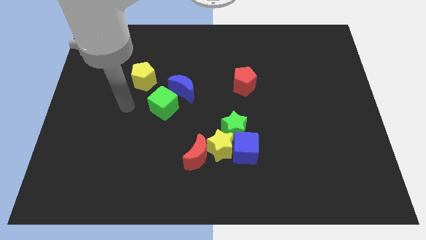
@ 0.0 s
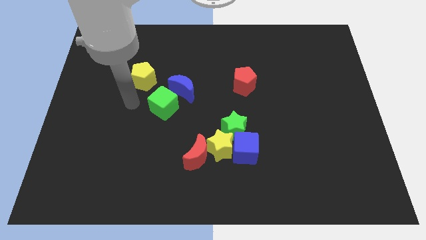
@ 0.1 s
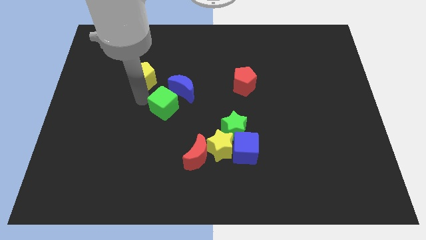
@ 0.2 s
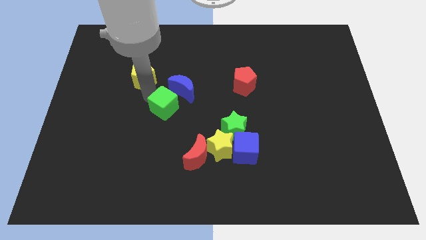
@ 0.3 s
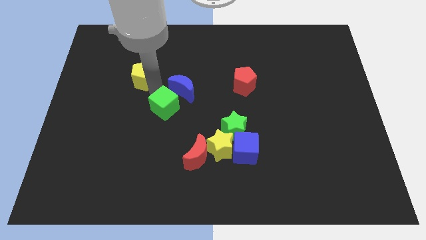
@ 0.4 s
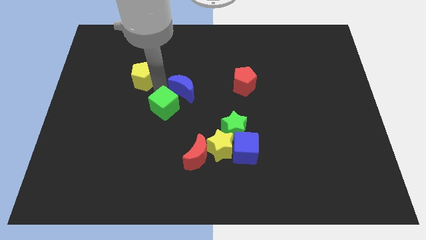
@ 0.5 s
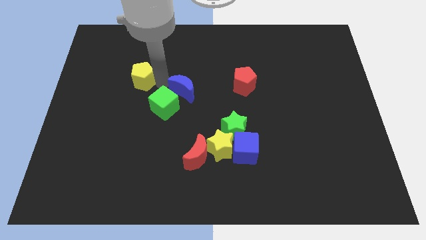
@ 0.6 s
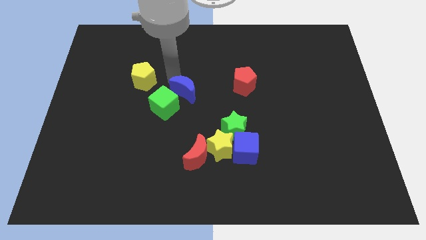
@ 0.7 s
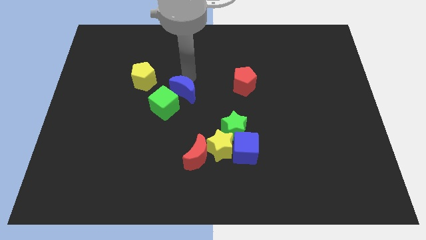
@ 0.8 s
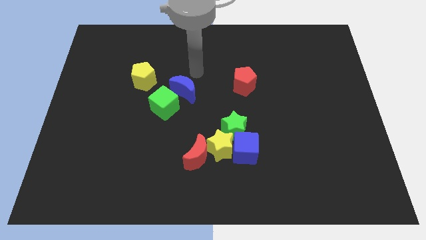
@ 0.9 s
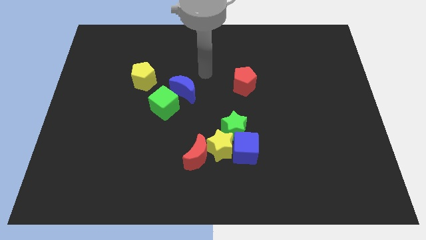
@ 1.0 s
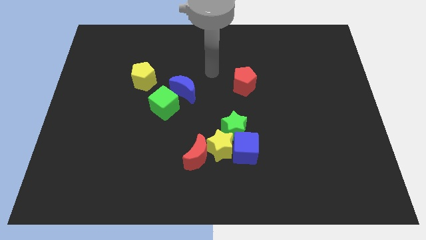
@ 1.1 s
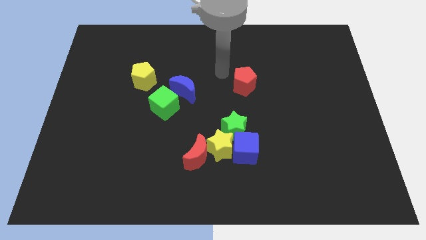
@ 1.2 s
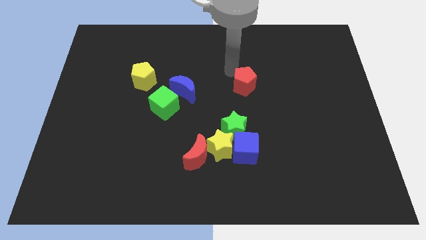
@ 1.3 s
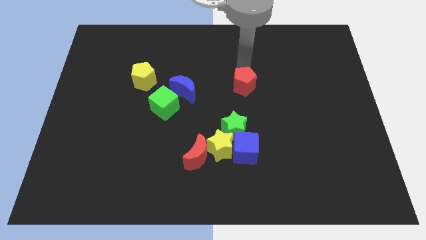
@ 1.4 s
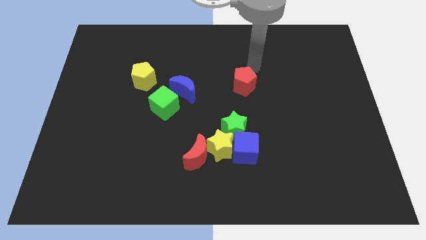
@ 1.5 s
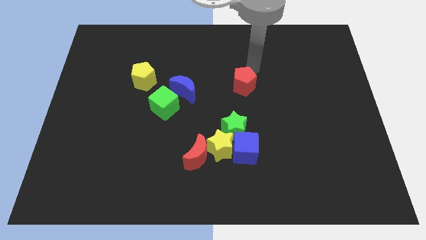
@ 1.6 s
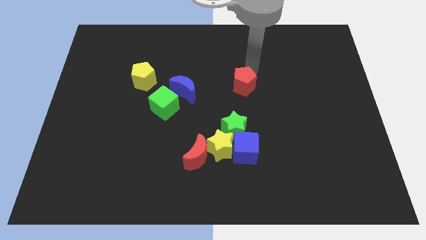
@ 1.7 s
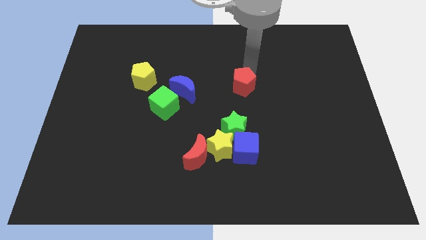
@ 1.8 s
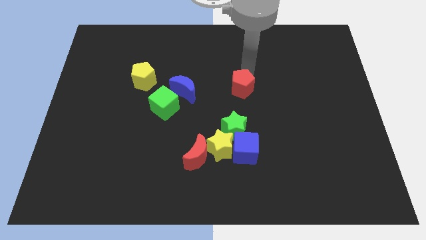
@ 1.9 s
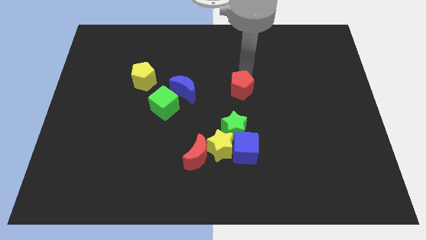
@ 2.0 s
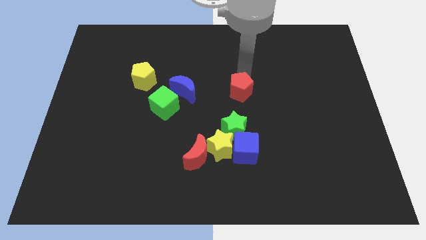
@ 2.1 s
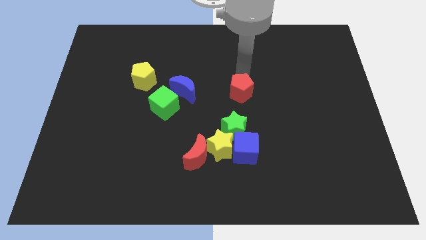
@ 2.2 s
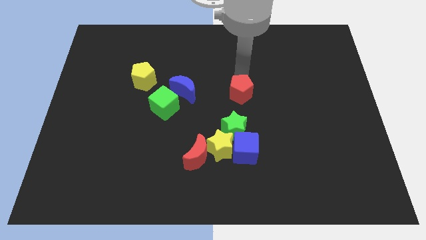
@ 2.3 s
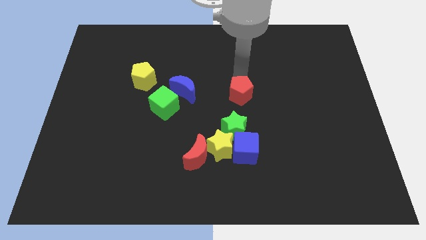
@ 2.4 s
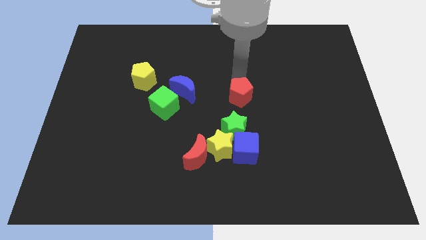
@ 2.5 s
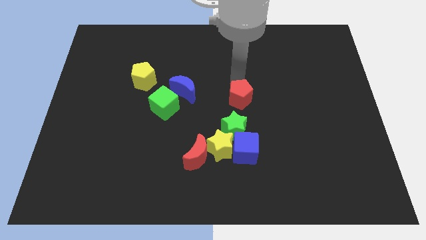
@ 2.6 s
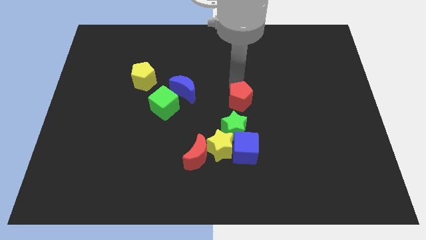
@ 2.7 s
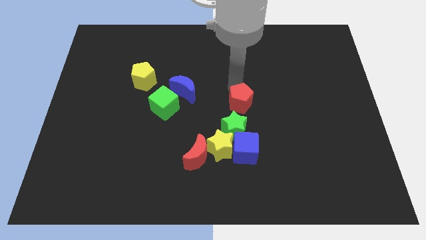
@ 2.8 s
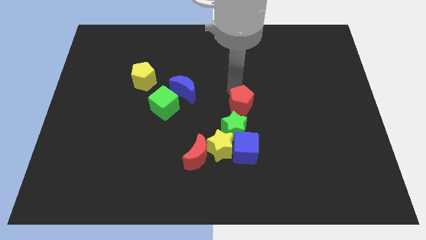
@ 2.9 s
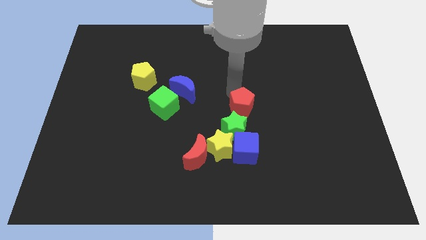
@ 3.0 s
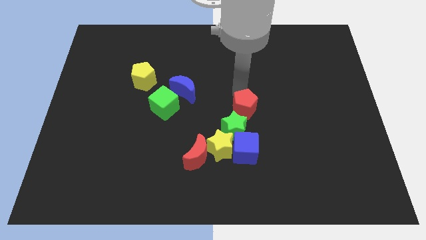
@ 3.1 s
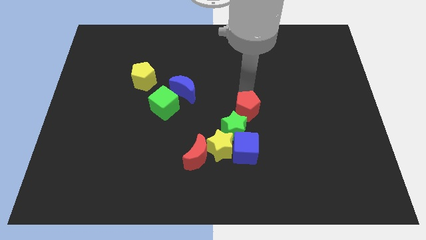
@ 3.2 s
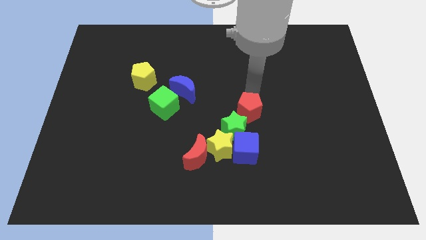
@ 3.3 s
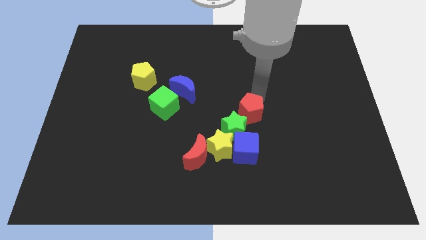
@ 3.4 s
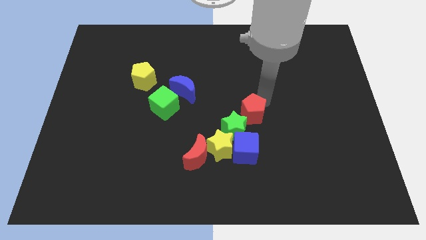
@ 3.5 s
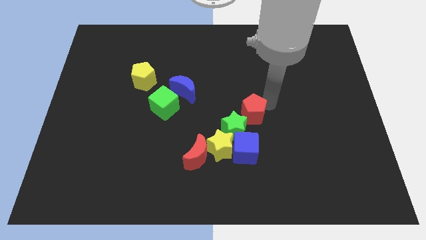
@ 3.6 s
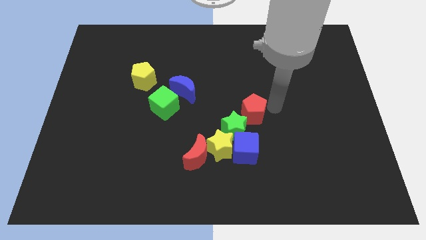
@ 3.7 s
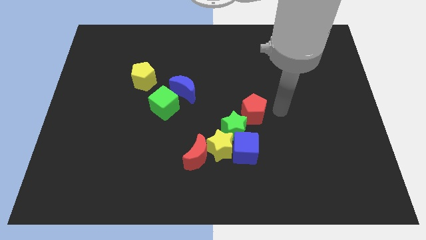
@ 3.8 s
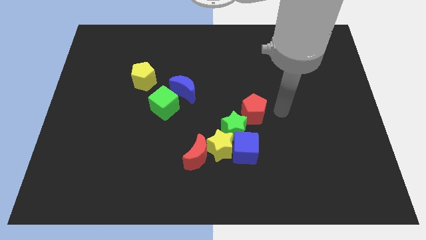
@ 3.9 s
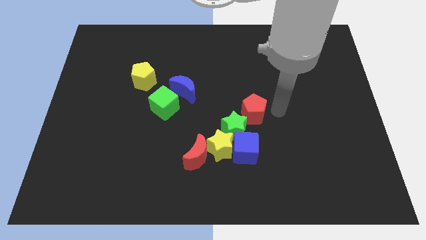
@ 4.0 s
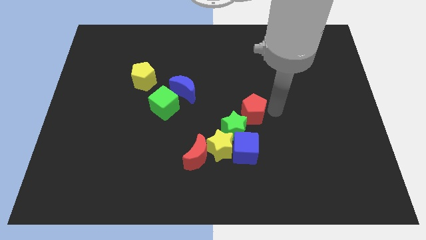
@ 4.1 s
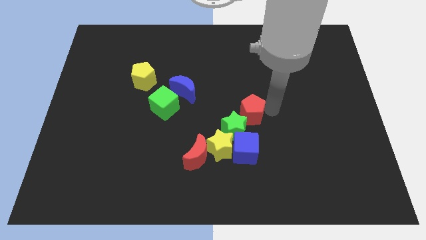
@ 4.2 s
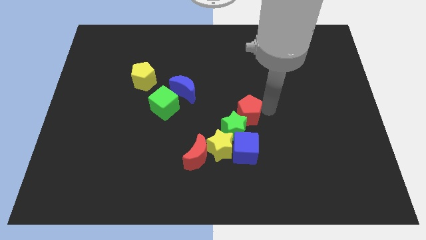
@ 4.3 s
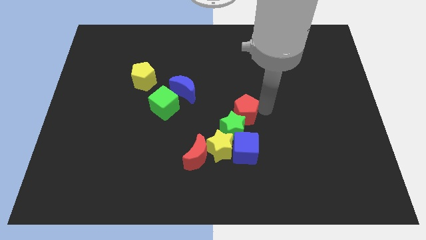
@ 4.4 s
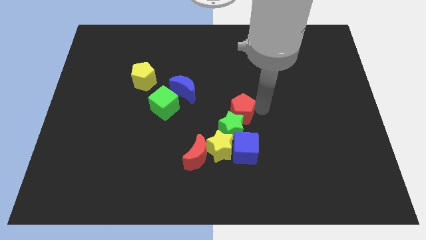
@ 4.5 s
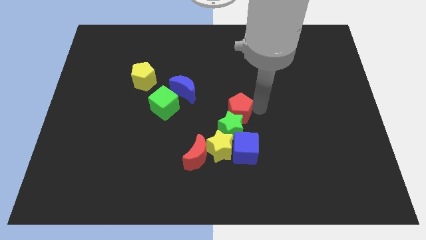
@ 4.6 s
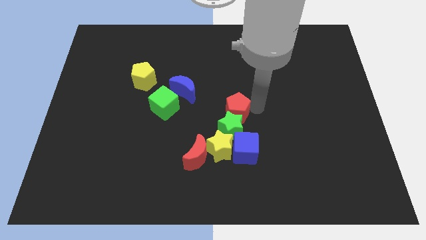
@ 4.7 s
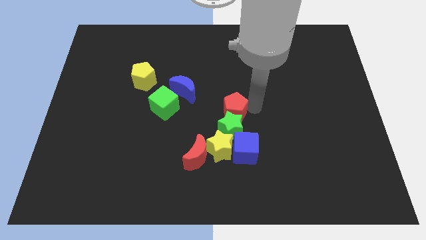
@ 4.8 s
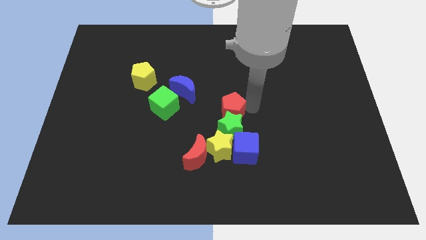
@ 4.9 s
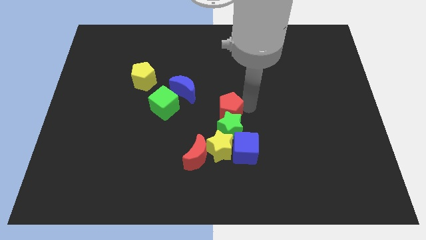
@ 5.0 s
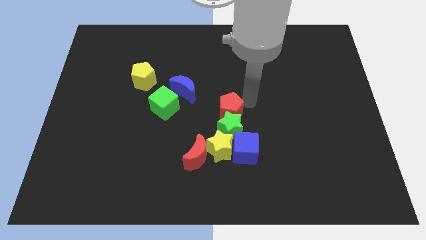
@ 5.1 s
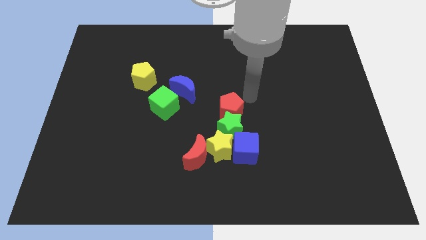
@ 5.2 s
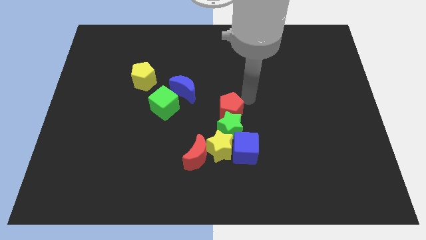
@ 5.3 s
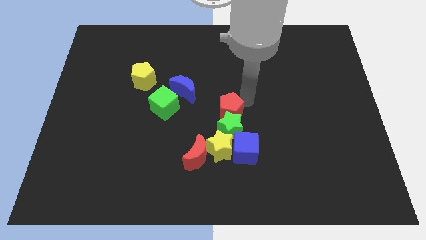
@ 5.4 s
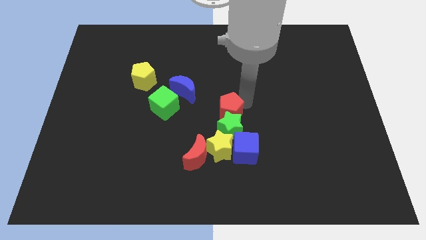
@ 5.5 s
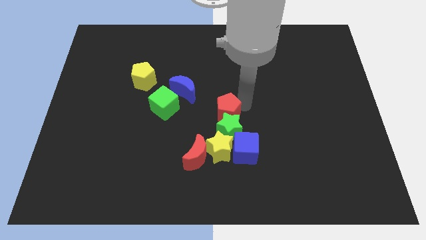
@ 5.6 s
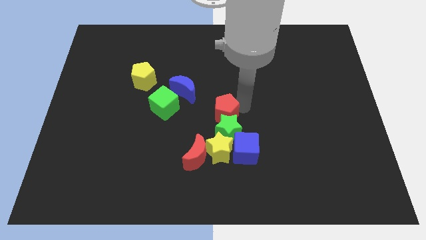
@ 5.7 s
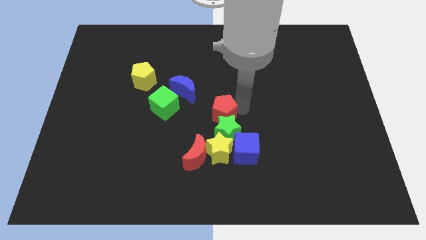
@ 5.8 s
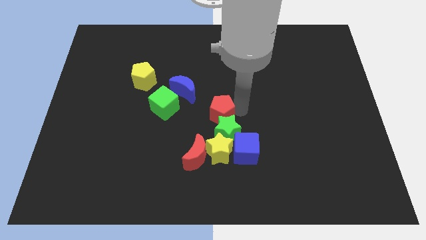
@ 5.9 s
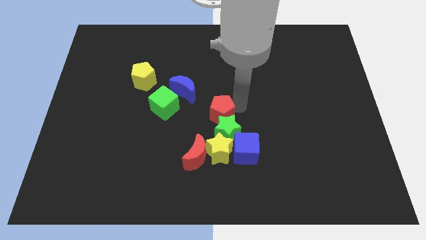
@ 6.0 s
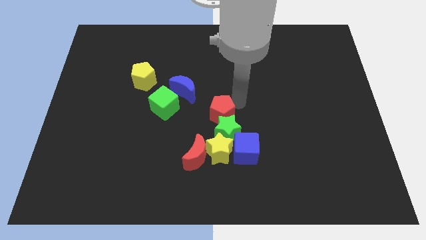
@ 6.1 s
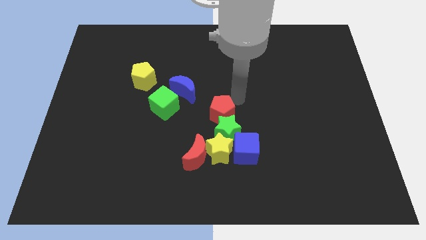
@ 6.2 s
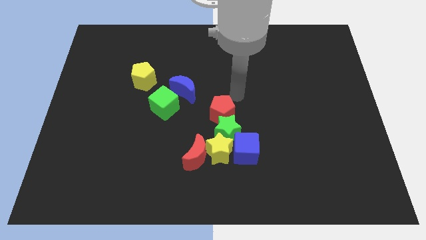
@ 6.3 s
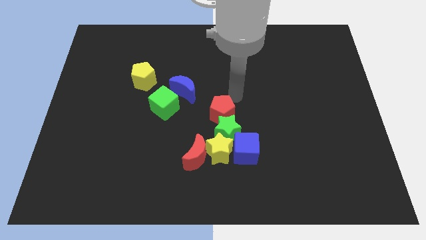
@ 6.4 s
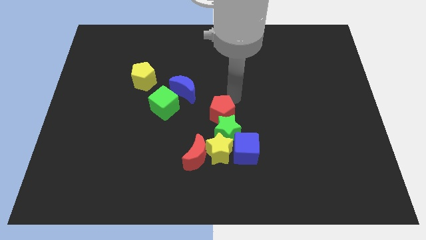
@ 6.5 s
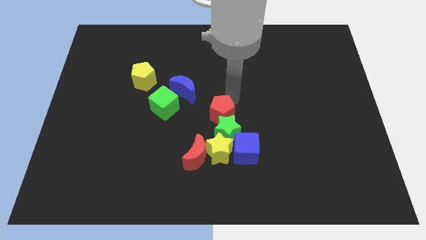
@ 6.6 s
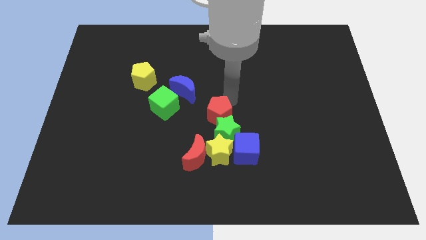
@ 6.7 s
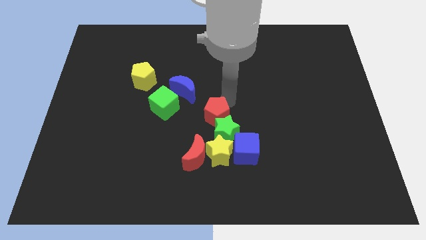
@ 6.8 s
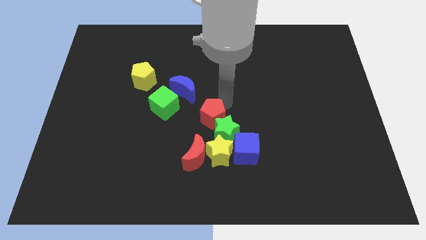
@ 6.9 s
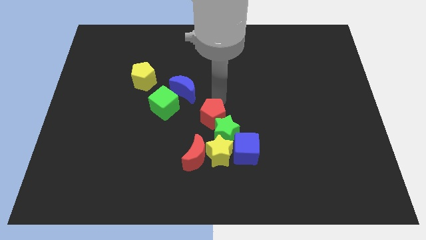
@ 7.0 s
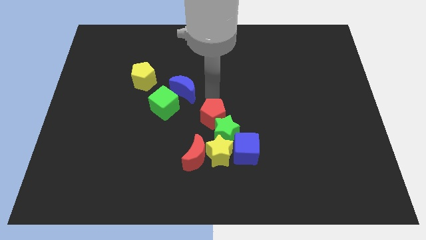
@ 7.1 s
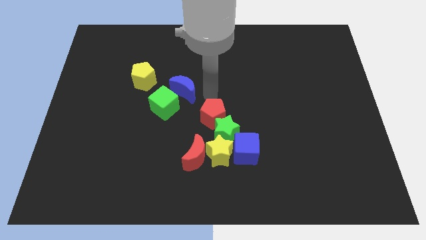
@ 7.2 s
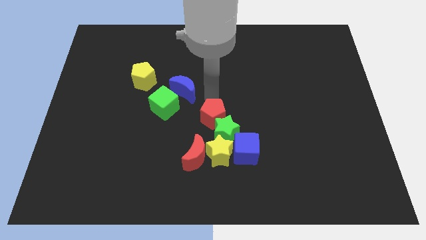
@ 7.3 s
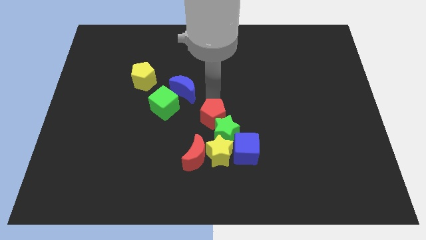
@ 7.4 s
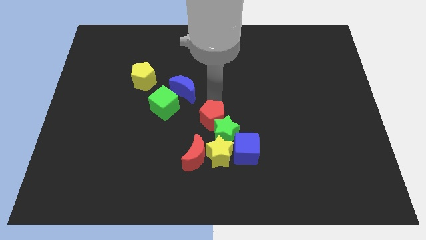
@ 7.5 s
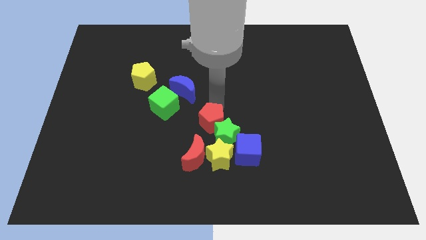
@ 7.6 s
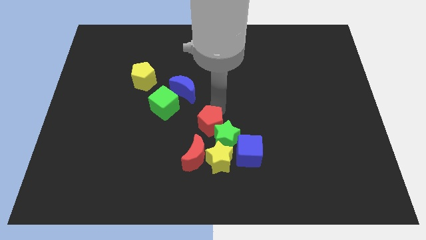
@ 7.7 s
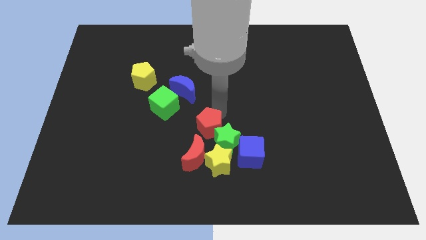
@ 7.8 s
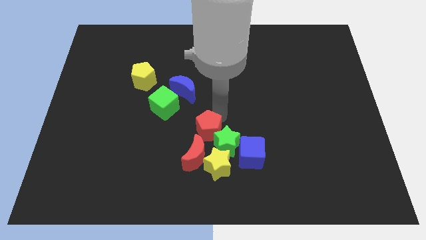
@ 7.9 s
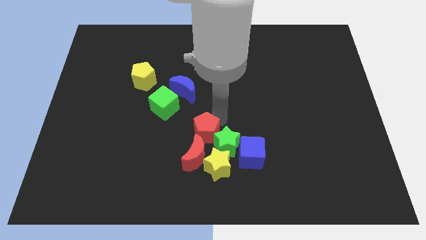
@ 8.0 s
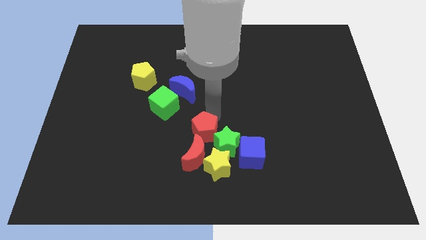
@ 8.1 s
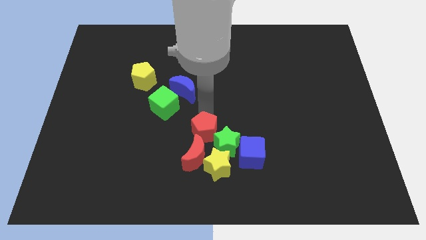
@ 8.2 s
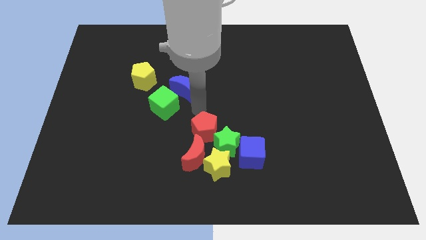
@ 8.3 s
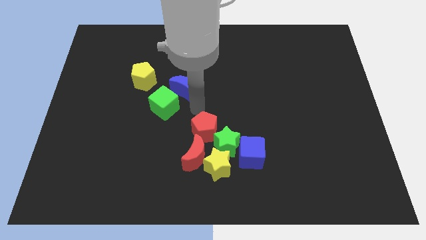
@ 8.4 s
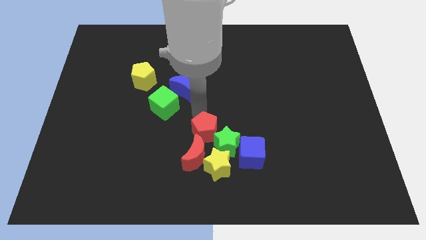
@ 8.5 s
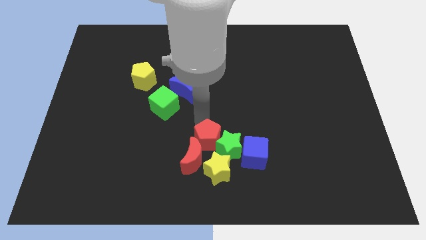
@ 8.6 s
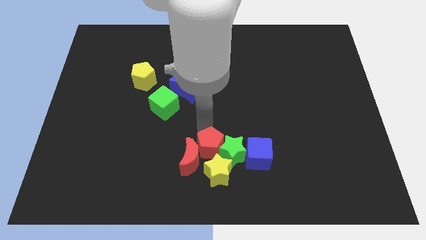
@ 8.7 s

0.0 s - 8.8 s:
move the red pentagon towards the yellow star
